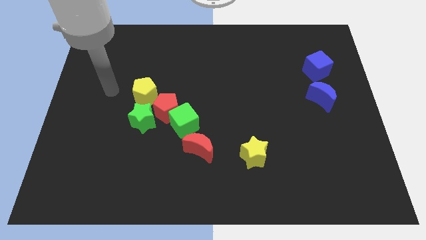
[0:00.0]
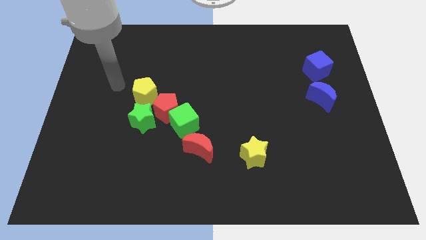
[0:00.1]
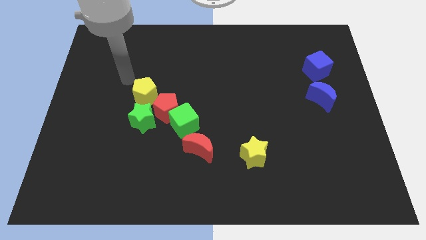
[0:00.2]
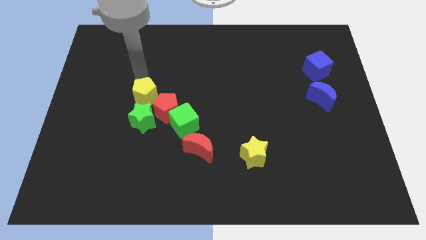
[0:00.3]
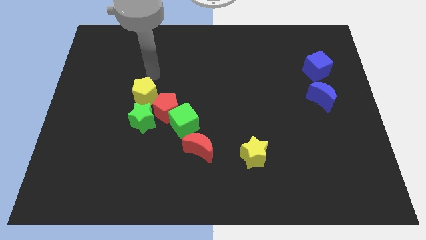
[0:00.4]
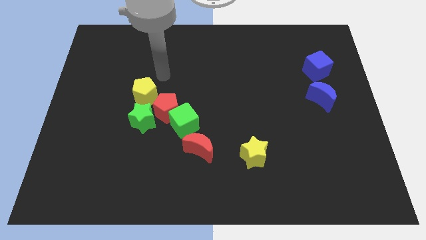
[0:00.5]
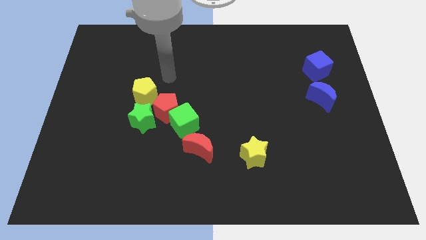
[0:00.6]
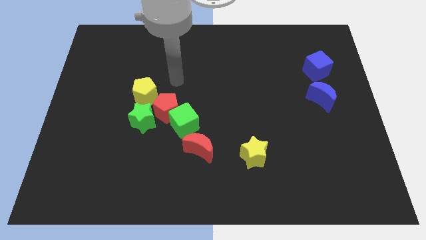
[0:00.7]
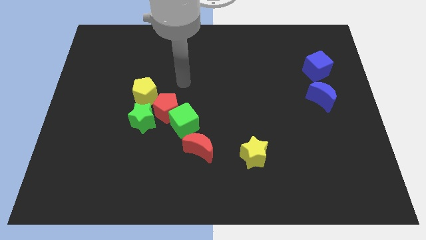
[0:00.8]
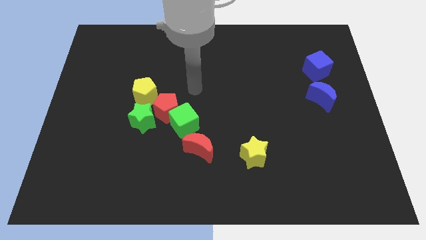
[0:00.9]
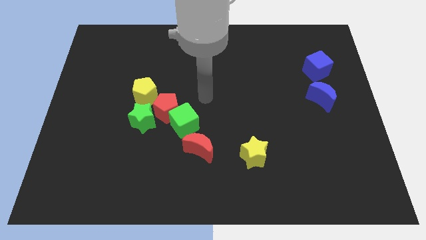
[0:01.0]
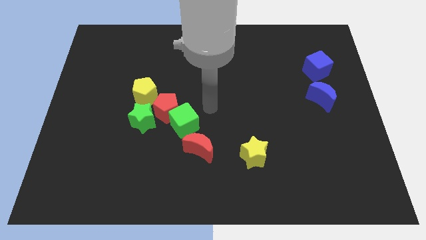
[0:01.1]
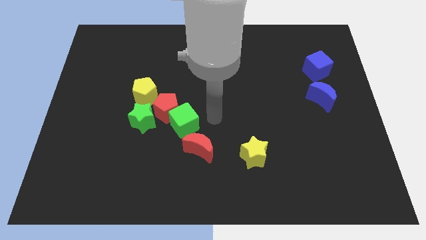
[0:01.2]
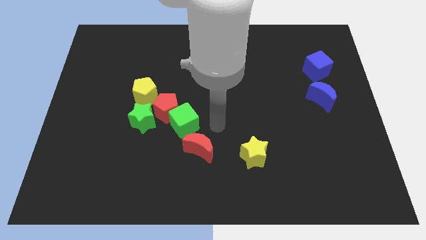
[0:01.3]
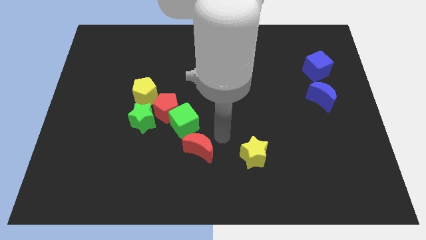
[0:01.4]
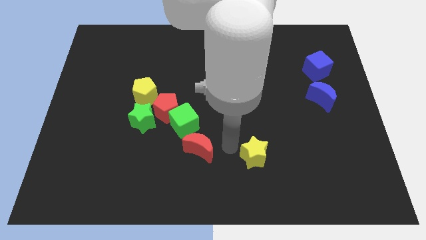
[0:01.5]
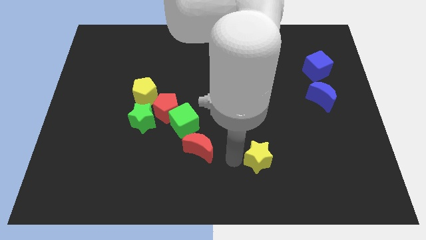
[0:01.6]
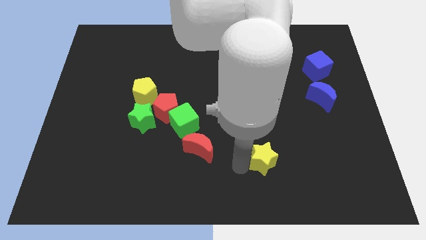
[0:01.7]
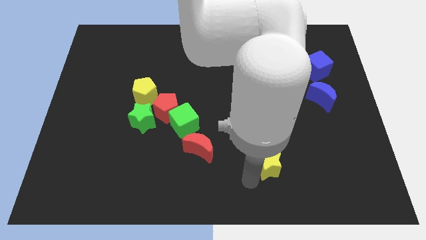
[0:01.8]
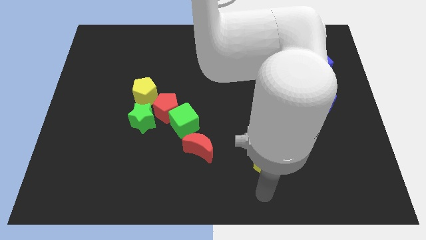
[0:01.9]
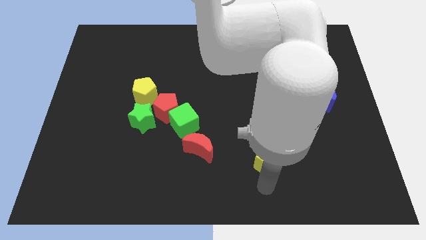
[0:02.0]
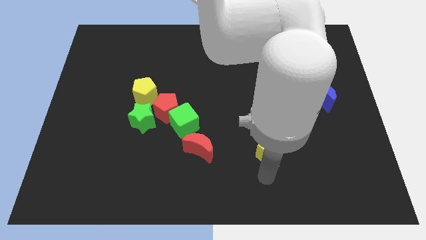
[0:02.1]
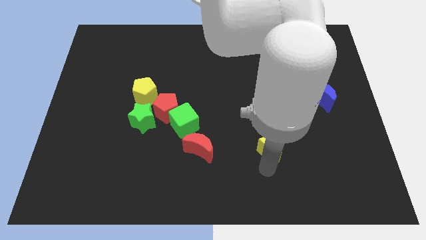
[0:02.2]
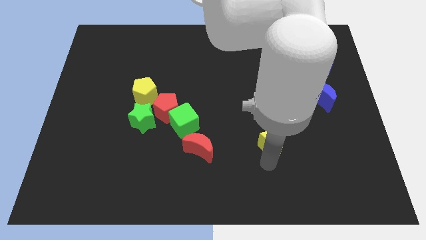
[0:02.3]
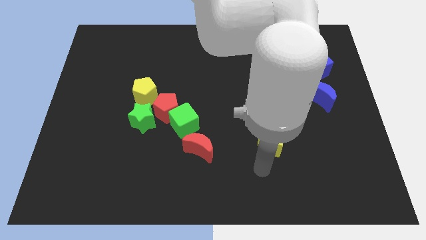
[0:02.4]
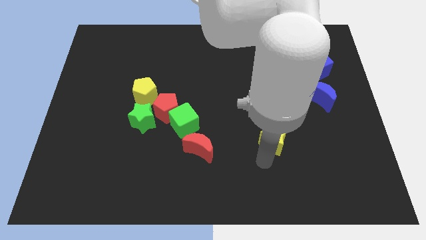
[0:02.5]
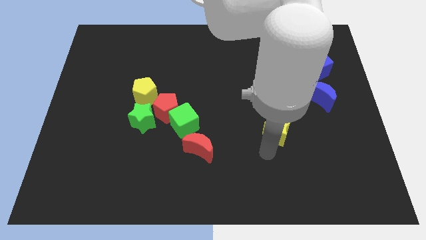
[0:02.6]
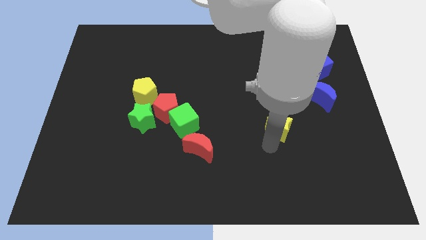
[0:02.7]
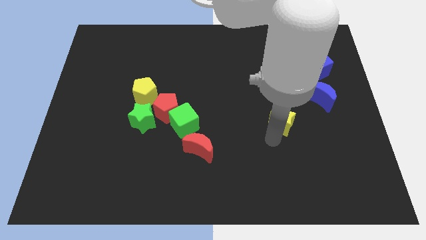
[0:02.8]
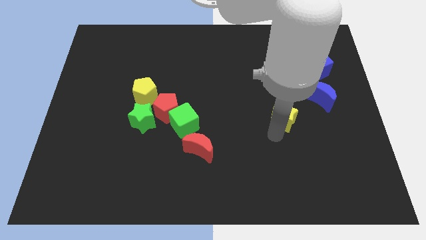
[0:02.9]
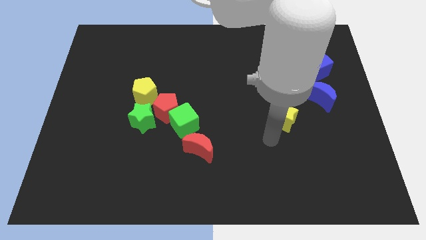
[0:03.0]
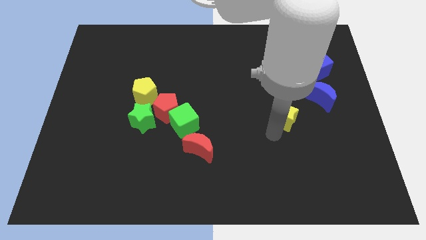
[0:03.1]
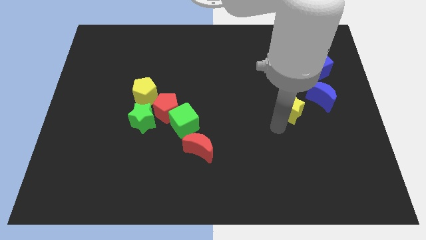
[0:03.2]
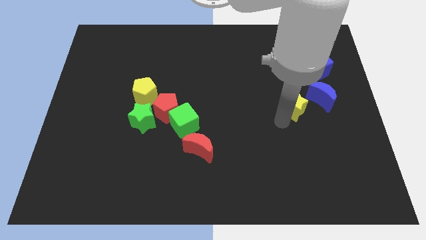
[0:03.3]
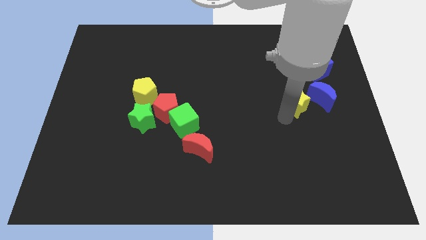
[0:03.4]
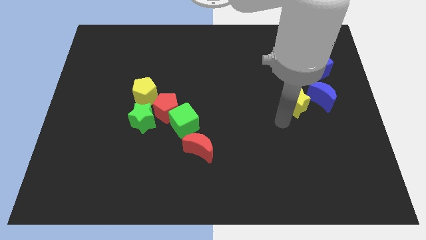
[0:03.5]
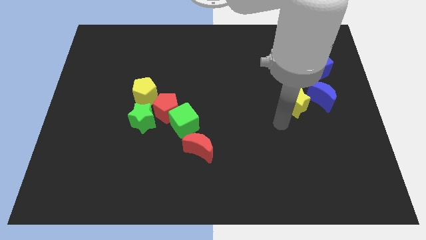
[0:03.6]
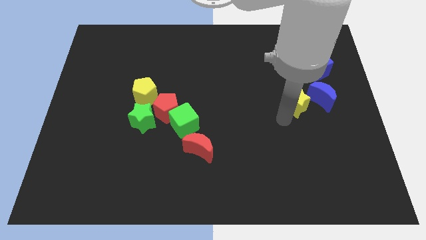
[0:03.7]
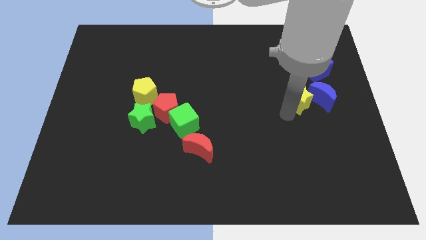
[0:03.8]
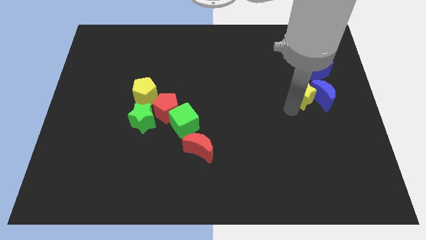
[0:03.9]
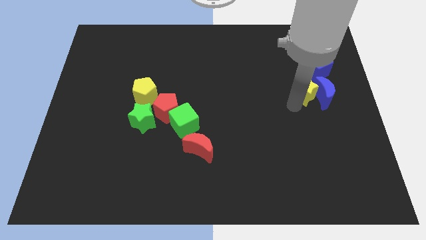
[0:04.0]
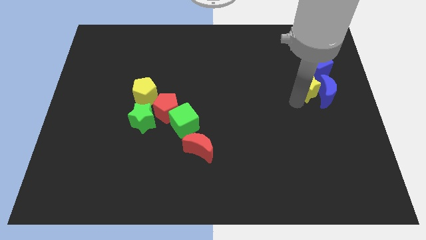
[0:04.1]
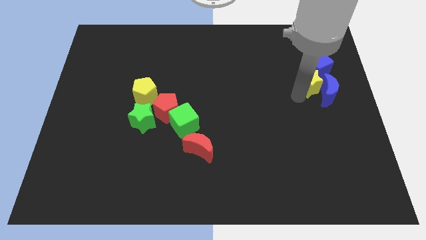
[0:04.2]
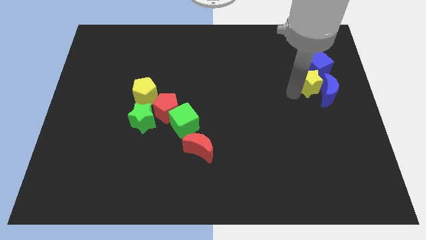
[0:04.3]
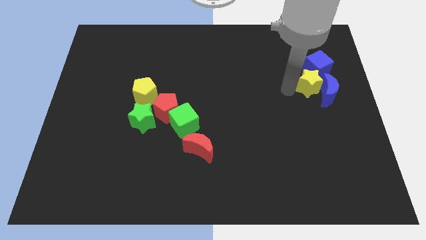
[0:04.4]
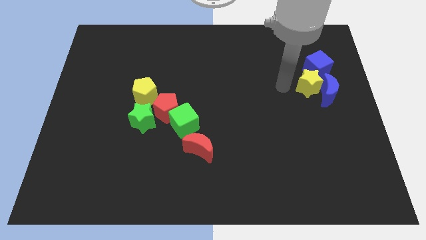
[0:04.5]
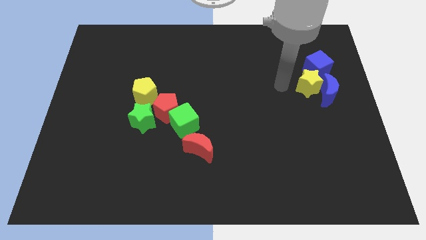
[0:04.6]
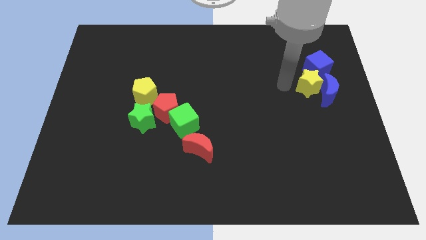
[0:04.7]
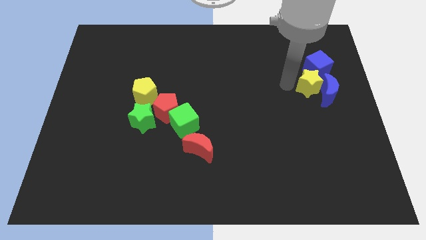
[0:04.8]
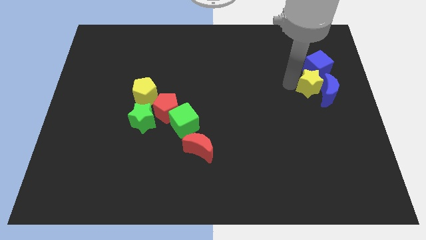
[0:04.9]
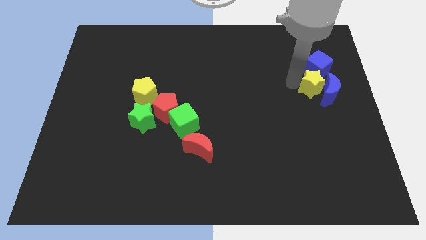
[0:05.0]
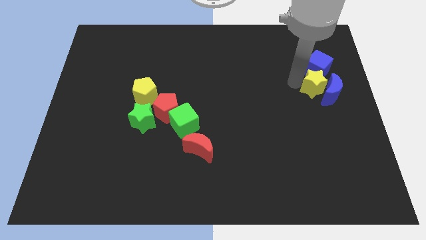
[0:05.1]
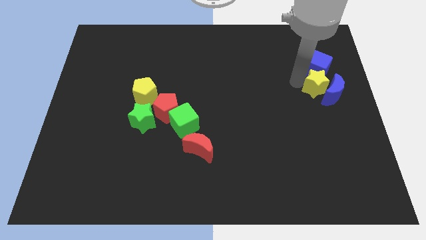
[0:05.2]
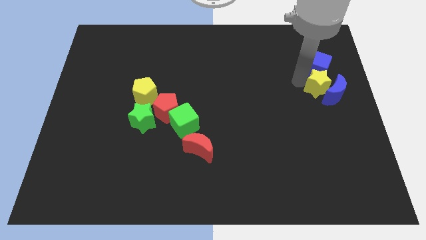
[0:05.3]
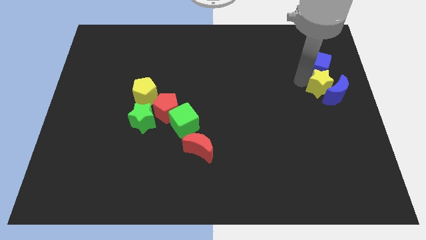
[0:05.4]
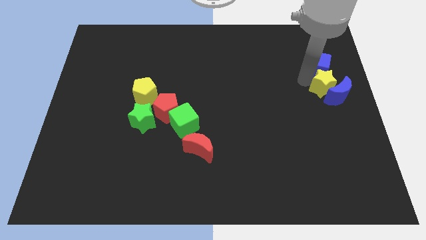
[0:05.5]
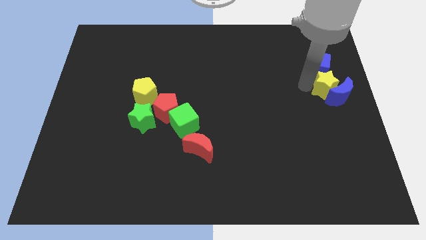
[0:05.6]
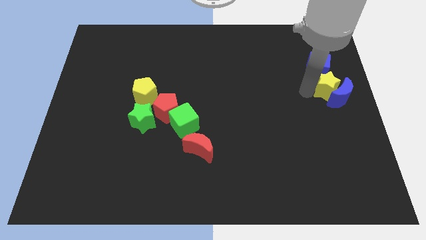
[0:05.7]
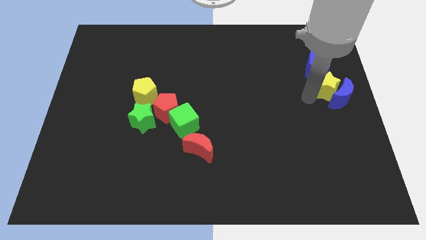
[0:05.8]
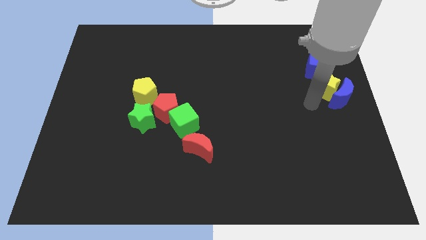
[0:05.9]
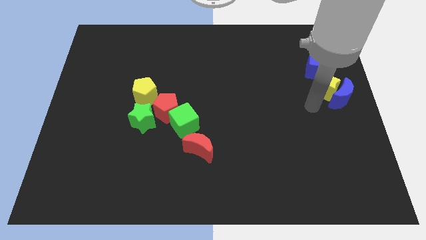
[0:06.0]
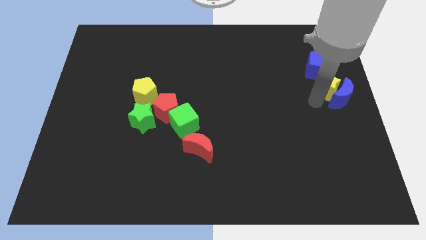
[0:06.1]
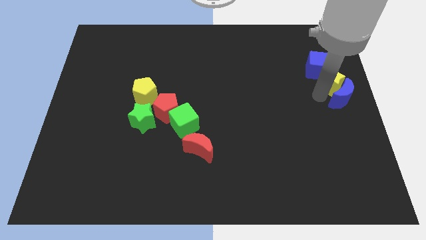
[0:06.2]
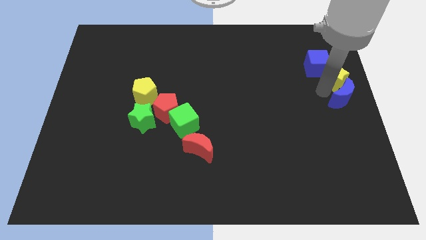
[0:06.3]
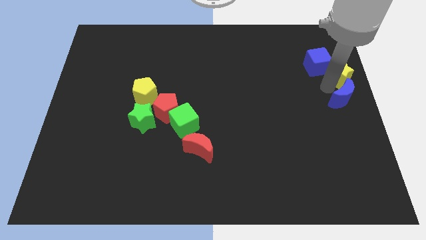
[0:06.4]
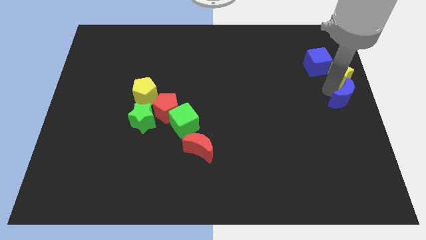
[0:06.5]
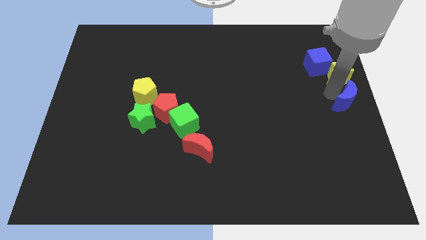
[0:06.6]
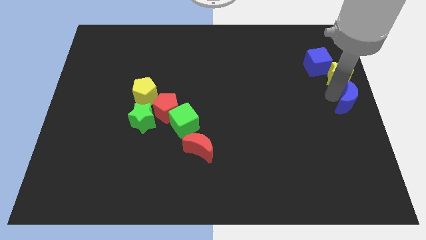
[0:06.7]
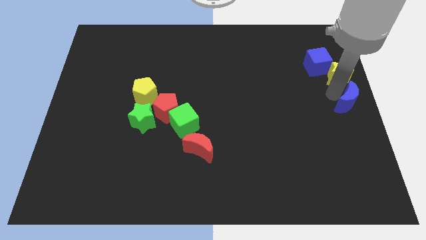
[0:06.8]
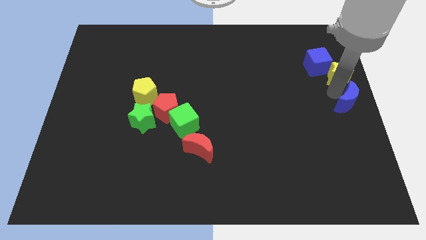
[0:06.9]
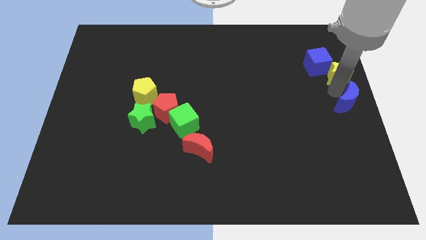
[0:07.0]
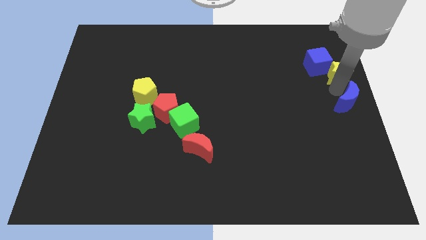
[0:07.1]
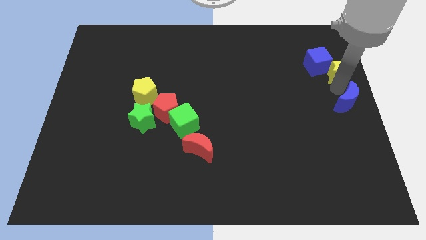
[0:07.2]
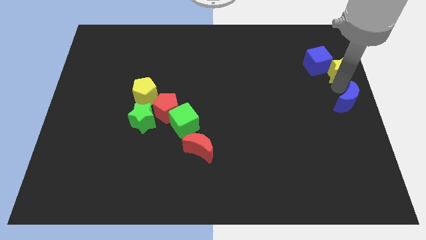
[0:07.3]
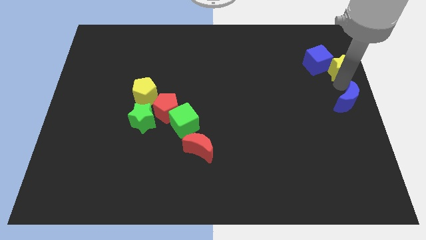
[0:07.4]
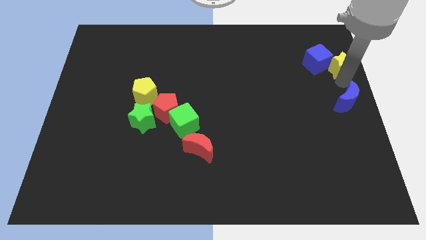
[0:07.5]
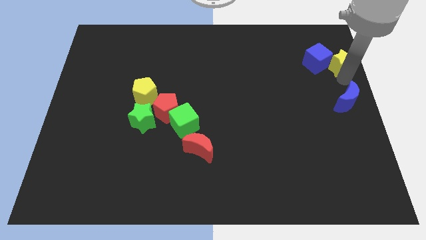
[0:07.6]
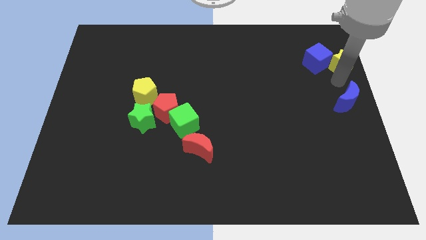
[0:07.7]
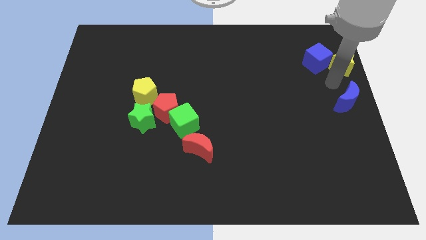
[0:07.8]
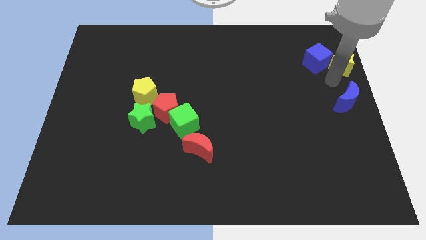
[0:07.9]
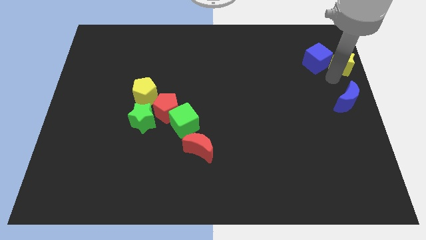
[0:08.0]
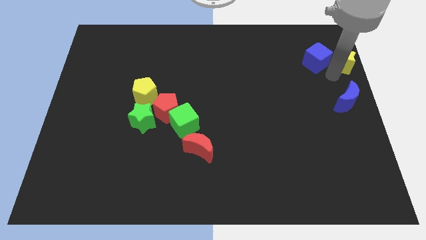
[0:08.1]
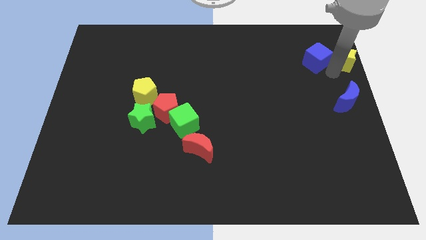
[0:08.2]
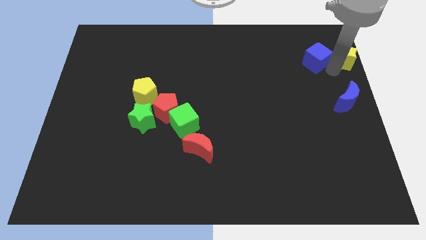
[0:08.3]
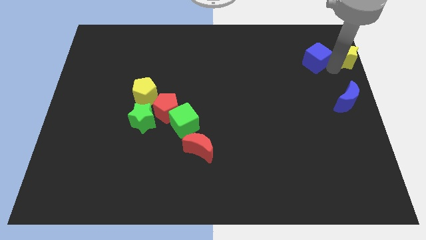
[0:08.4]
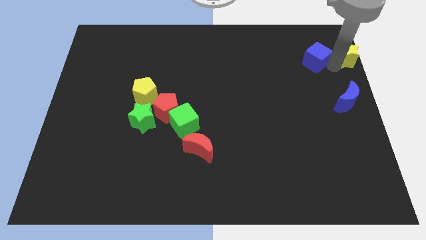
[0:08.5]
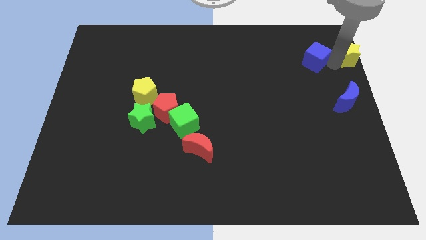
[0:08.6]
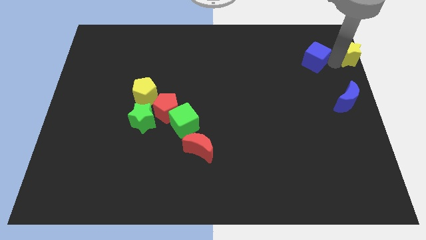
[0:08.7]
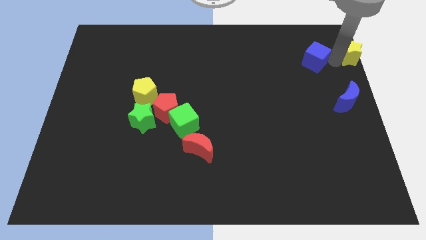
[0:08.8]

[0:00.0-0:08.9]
move the yellow star to the top right corner
